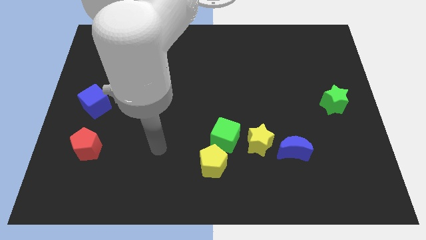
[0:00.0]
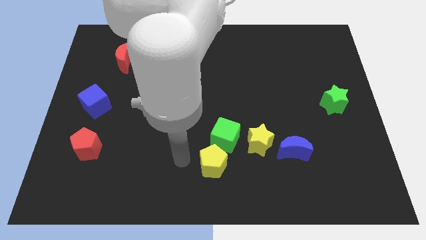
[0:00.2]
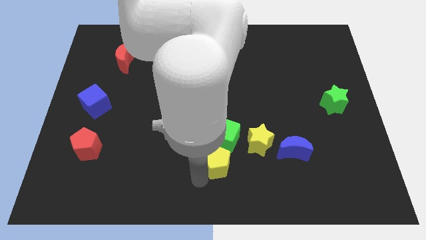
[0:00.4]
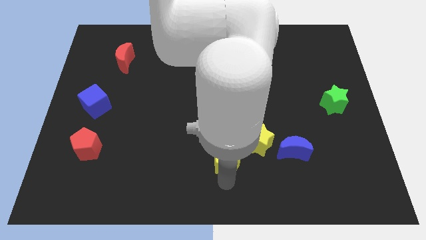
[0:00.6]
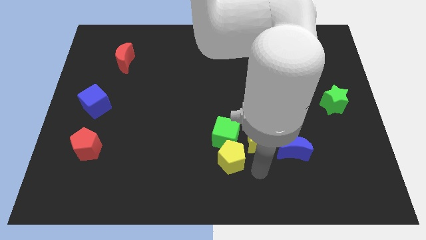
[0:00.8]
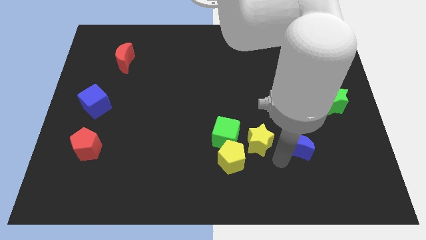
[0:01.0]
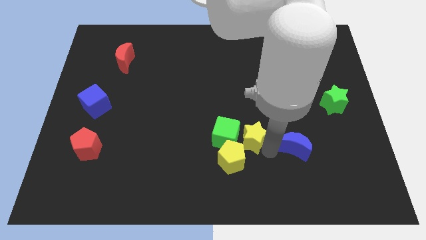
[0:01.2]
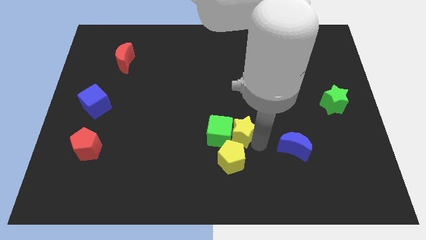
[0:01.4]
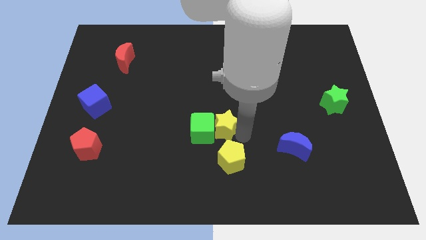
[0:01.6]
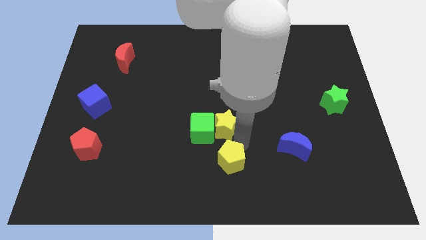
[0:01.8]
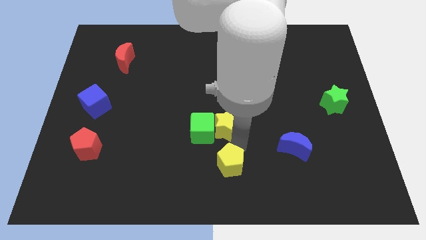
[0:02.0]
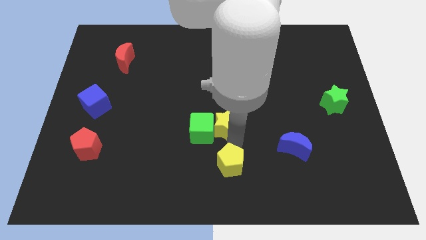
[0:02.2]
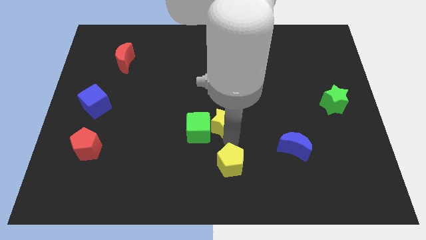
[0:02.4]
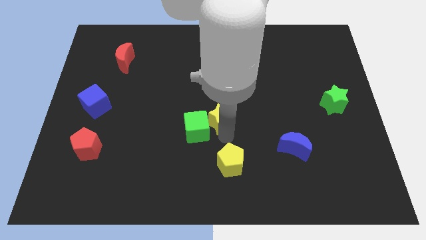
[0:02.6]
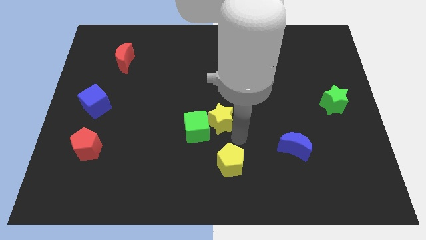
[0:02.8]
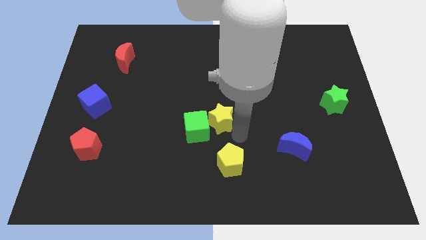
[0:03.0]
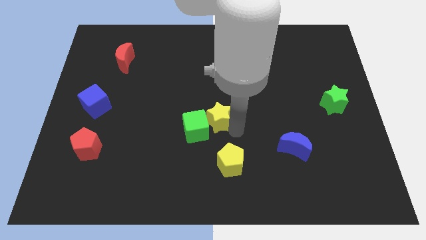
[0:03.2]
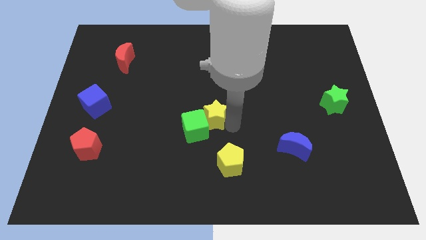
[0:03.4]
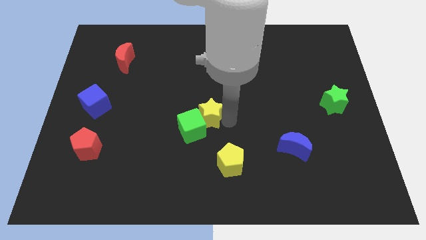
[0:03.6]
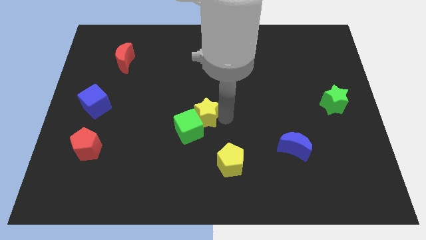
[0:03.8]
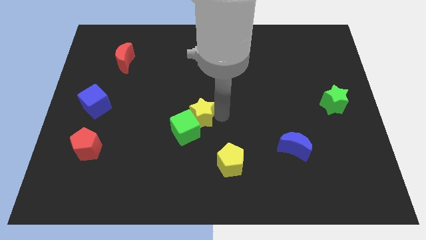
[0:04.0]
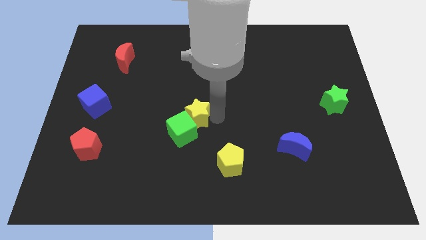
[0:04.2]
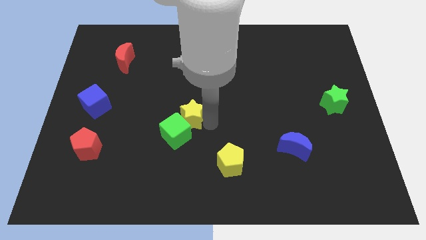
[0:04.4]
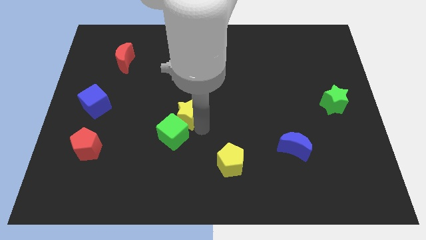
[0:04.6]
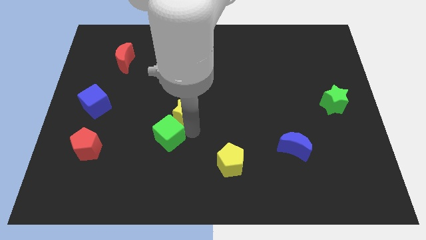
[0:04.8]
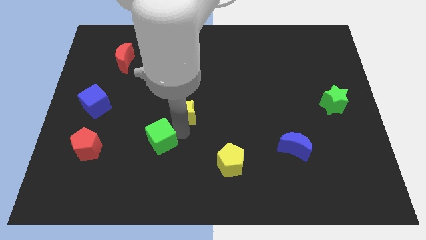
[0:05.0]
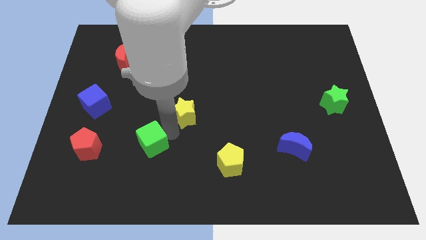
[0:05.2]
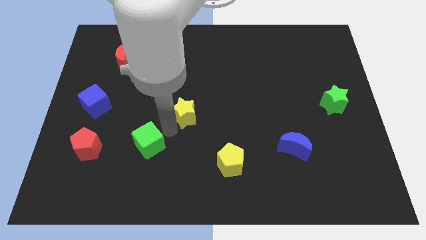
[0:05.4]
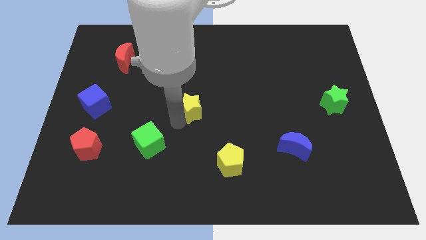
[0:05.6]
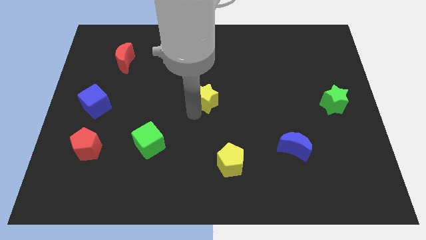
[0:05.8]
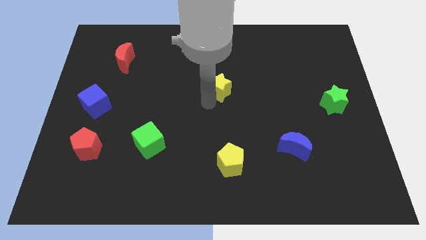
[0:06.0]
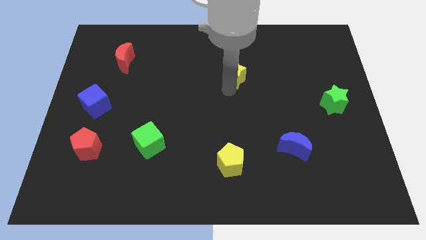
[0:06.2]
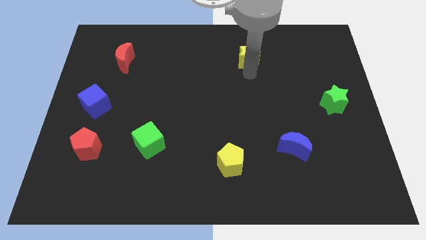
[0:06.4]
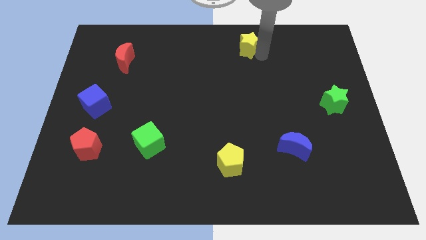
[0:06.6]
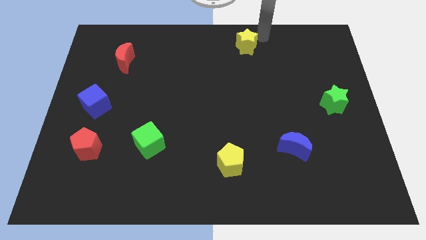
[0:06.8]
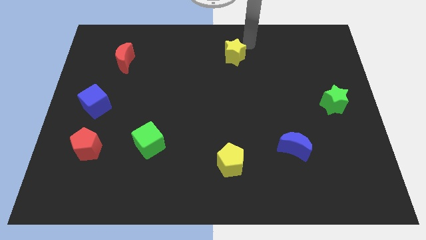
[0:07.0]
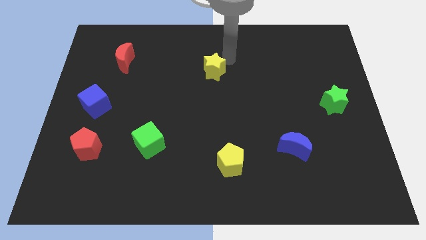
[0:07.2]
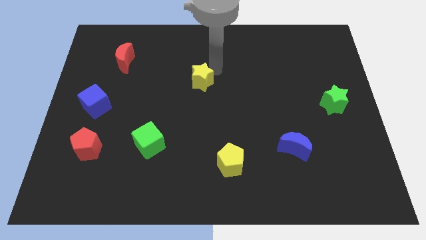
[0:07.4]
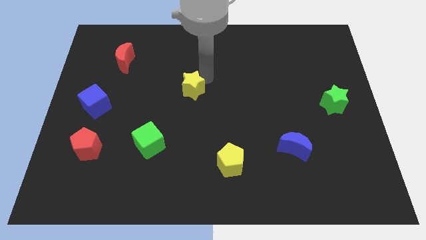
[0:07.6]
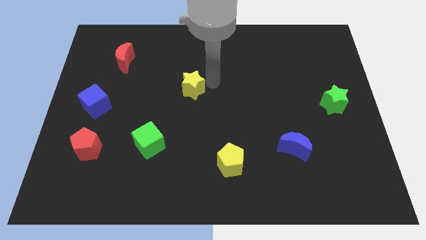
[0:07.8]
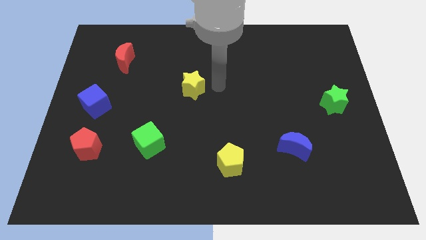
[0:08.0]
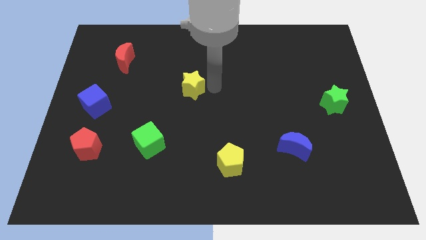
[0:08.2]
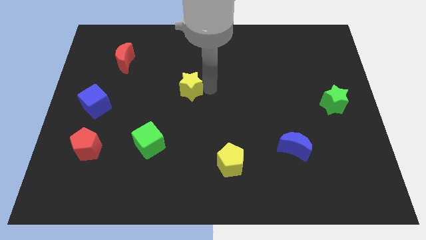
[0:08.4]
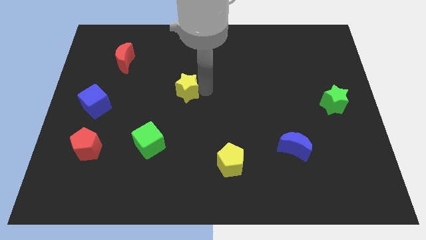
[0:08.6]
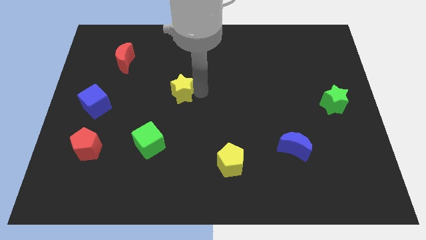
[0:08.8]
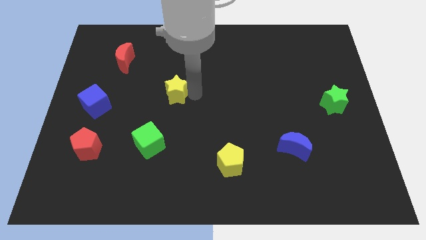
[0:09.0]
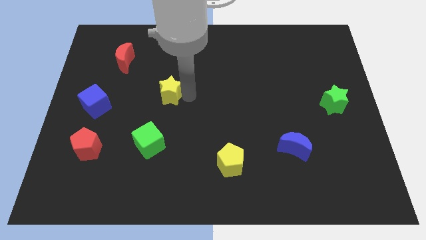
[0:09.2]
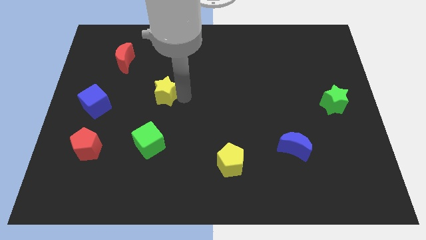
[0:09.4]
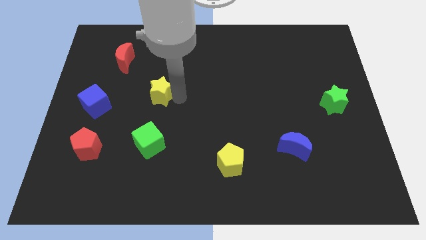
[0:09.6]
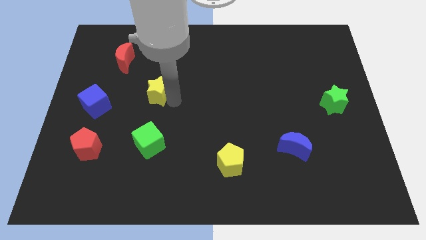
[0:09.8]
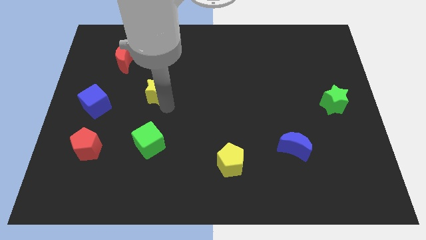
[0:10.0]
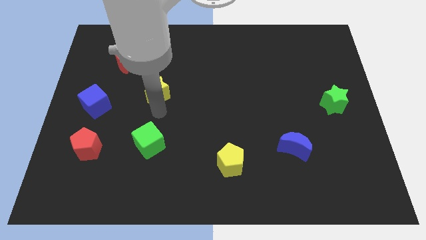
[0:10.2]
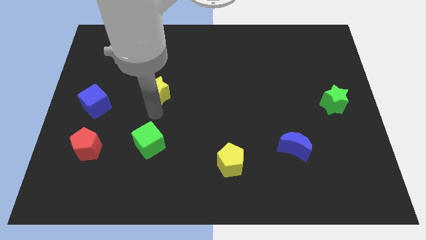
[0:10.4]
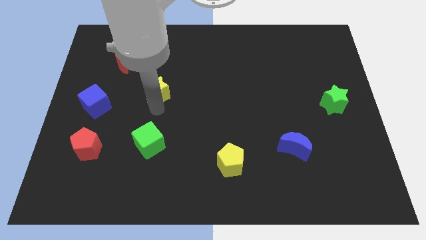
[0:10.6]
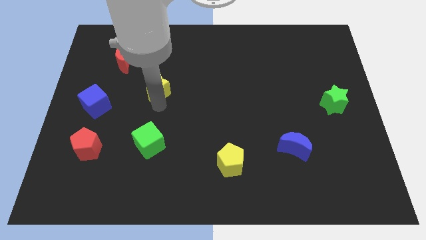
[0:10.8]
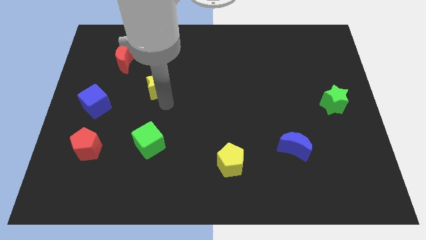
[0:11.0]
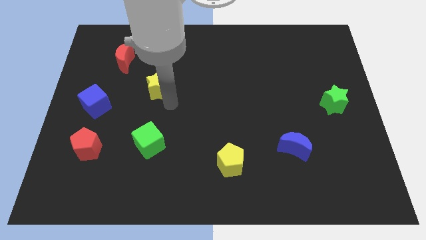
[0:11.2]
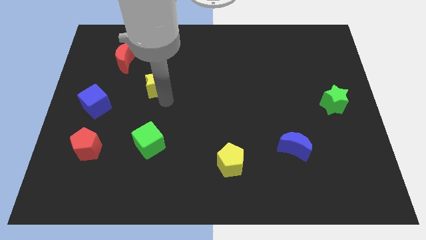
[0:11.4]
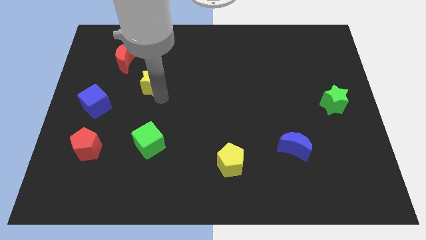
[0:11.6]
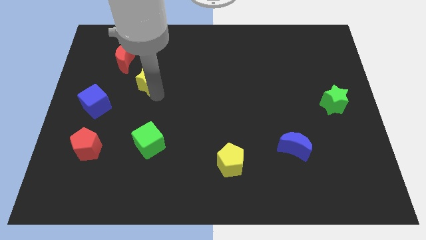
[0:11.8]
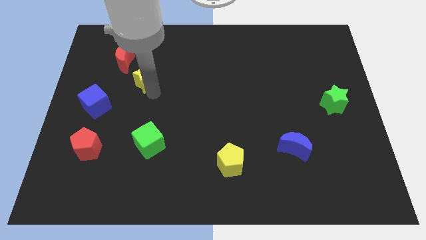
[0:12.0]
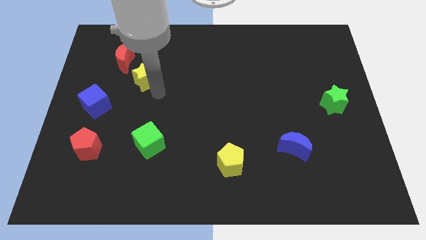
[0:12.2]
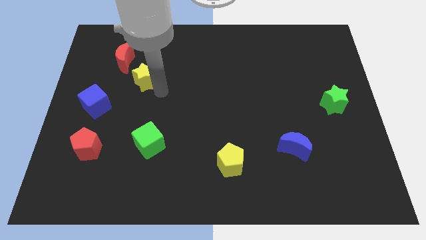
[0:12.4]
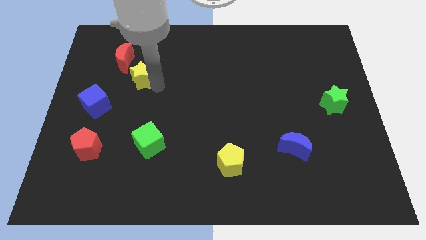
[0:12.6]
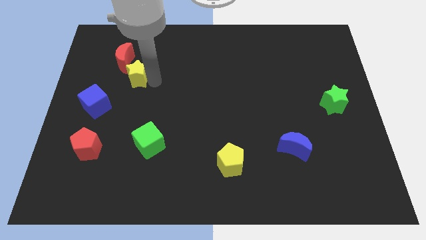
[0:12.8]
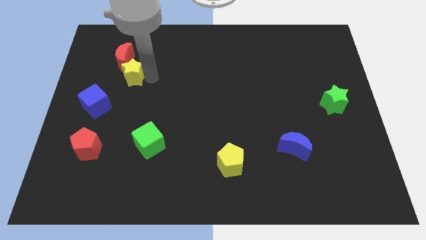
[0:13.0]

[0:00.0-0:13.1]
slide the yellow star close to the red moon

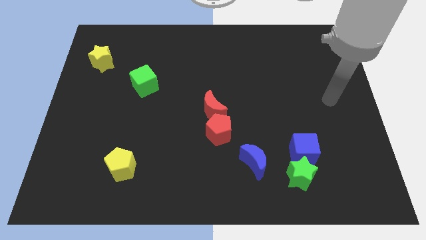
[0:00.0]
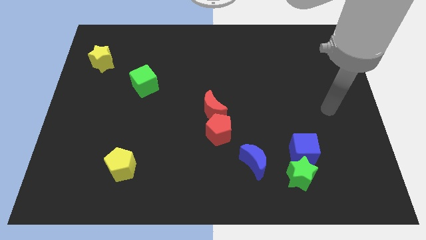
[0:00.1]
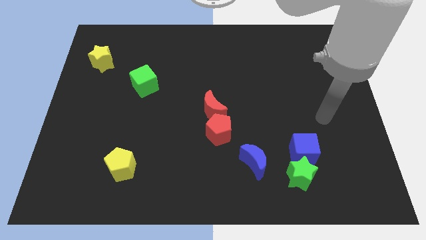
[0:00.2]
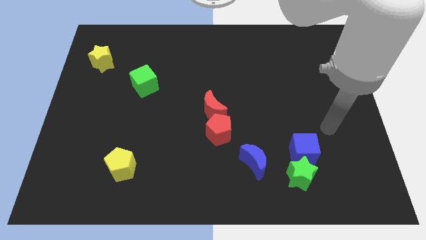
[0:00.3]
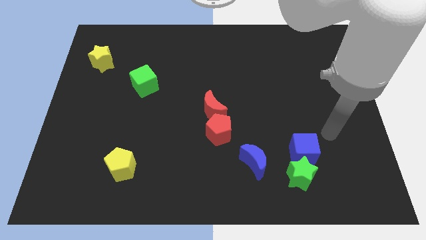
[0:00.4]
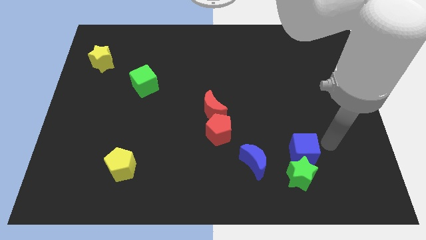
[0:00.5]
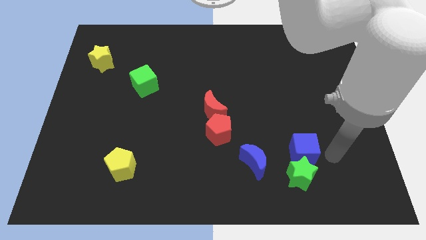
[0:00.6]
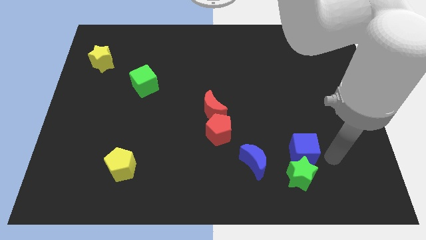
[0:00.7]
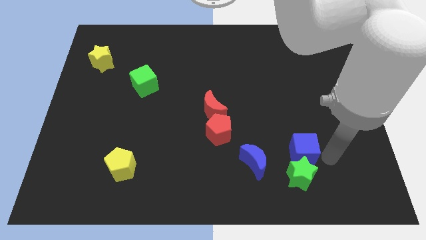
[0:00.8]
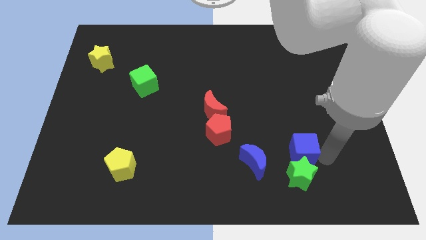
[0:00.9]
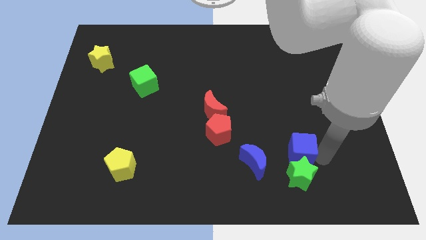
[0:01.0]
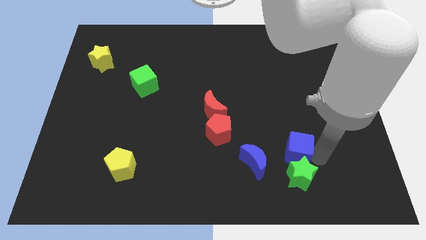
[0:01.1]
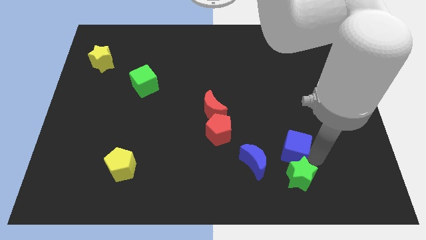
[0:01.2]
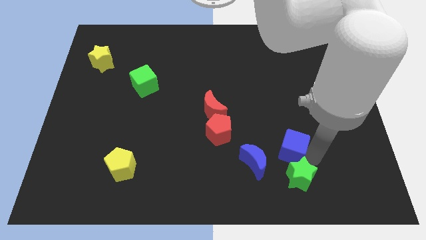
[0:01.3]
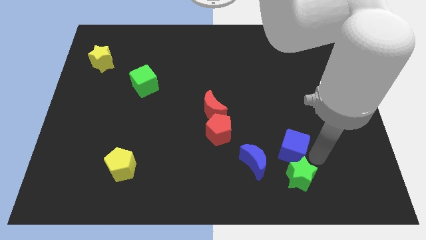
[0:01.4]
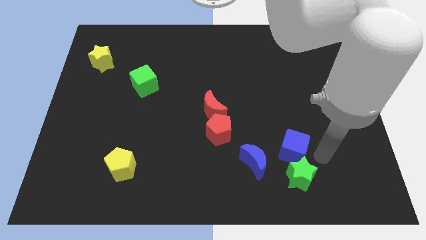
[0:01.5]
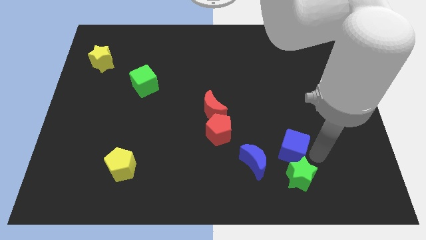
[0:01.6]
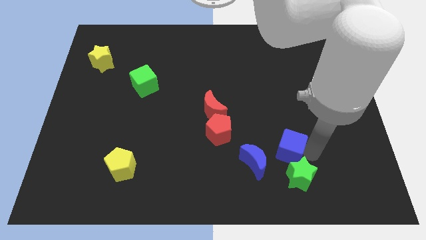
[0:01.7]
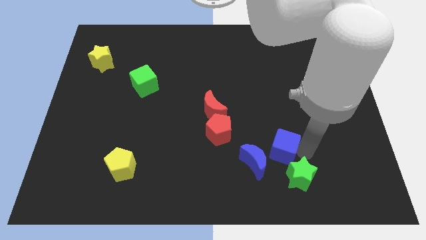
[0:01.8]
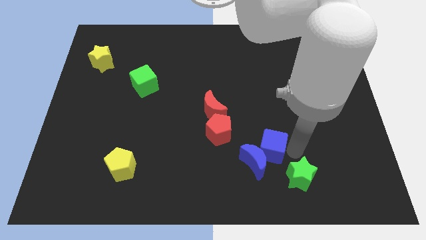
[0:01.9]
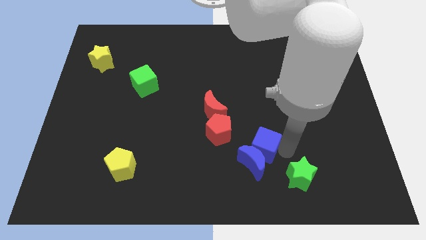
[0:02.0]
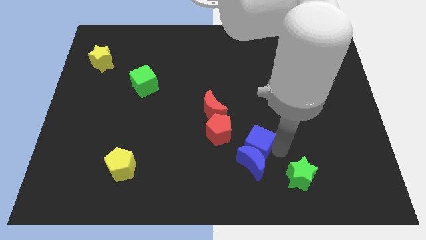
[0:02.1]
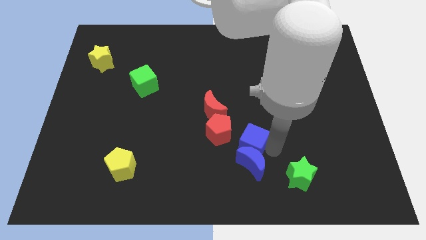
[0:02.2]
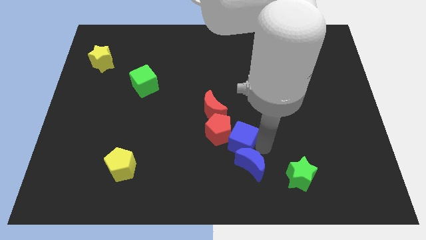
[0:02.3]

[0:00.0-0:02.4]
slide the blue cube next to the red pentagon
